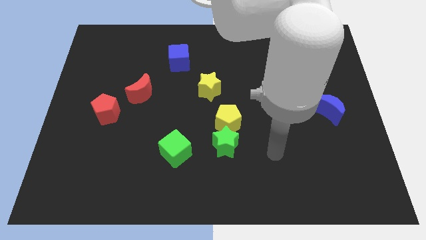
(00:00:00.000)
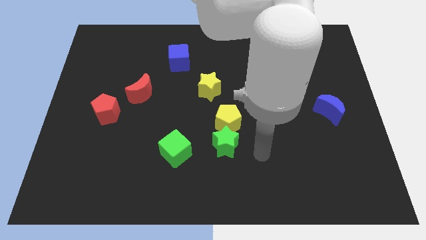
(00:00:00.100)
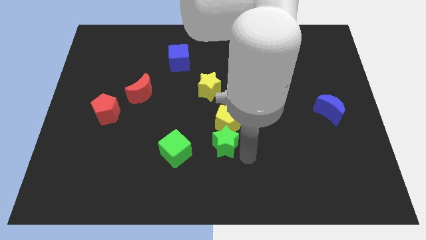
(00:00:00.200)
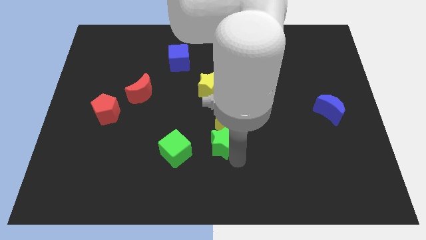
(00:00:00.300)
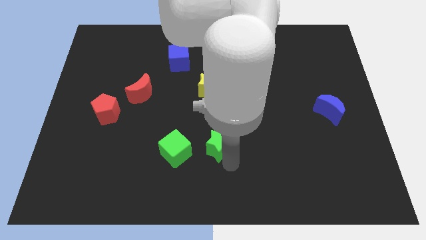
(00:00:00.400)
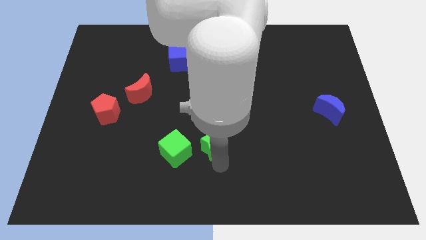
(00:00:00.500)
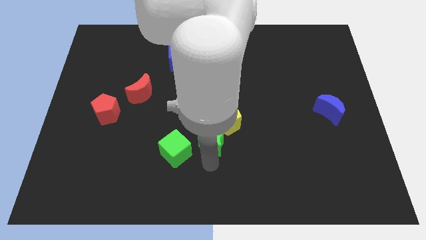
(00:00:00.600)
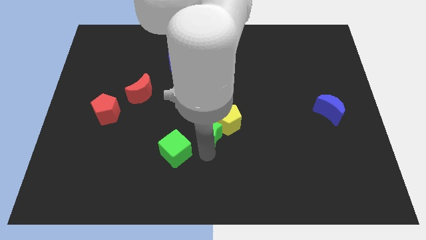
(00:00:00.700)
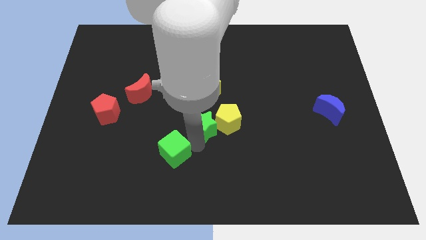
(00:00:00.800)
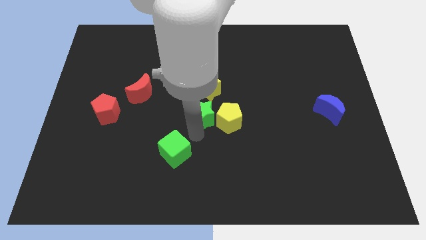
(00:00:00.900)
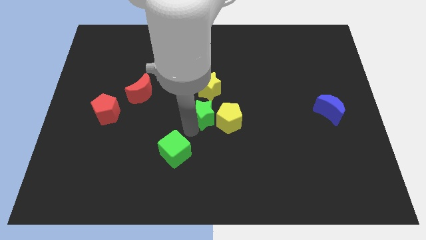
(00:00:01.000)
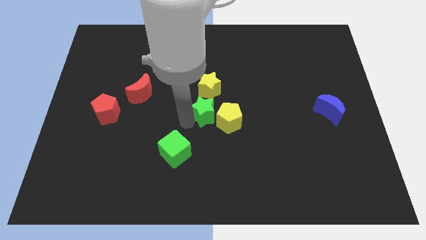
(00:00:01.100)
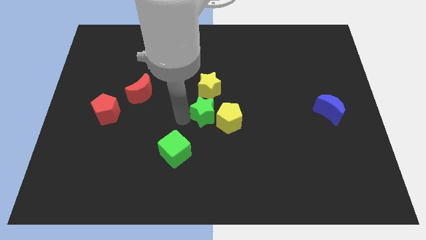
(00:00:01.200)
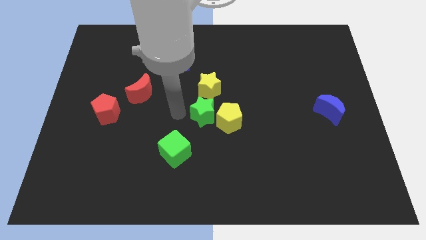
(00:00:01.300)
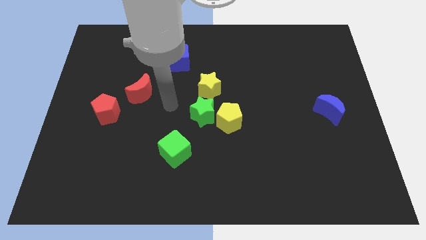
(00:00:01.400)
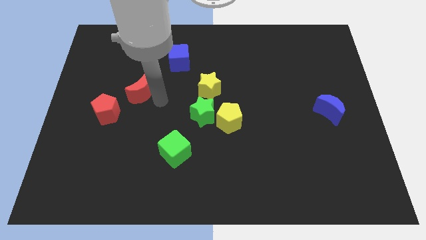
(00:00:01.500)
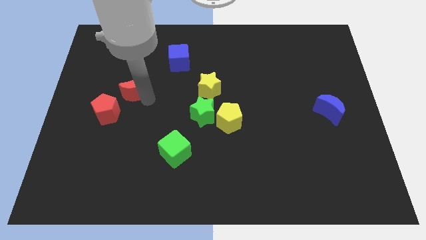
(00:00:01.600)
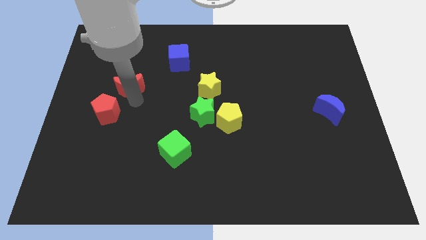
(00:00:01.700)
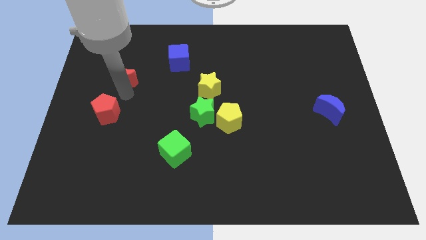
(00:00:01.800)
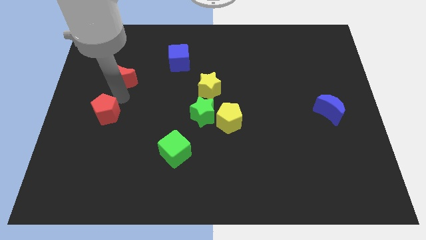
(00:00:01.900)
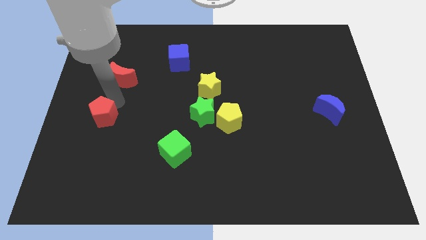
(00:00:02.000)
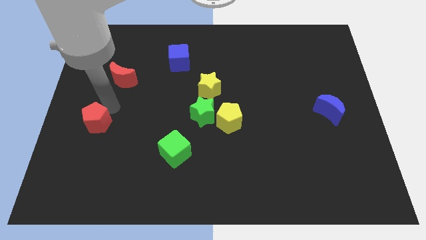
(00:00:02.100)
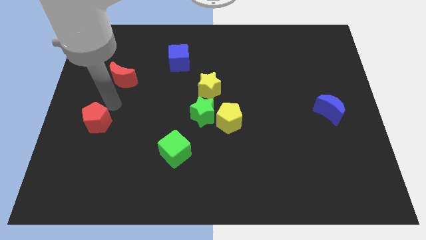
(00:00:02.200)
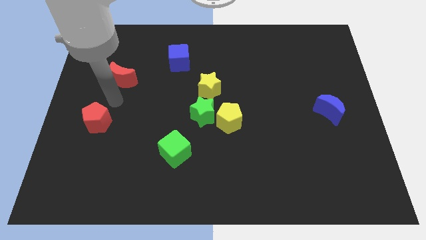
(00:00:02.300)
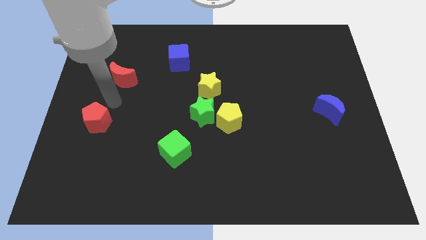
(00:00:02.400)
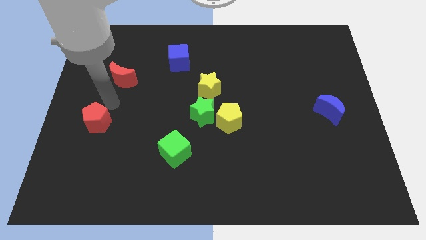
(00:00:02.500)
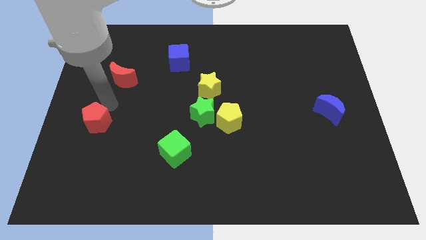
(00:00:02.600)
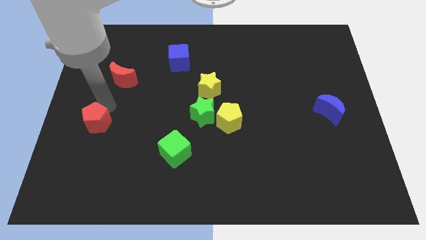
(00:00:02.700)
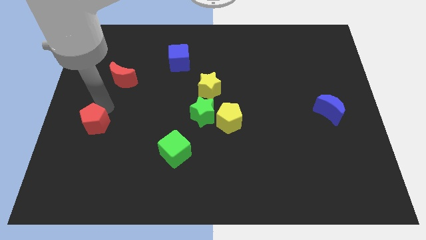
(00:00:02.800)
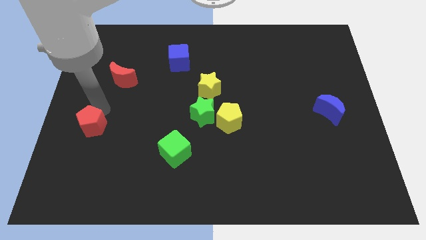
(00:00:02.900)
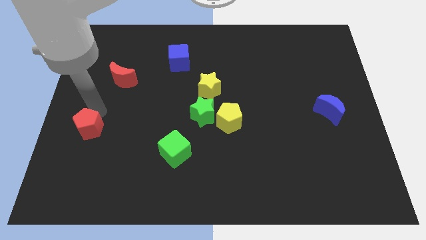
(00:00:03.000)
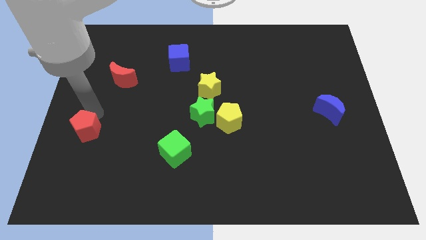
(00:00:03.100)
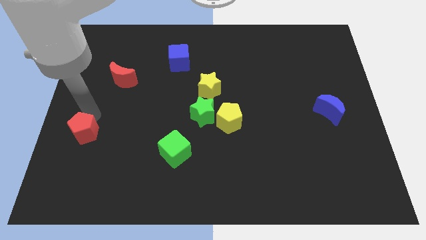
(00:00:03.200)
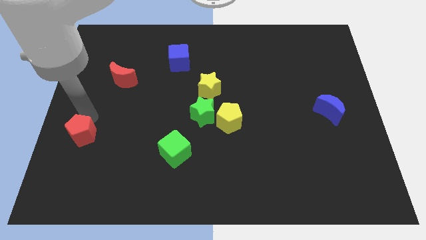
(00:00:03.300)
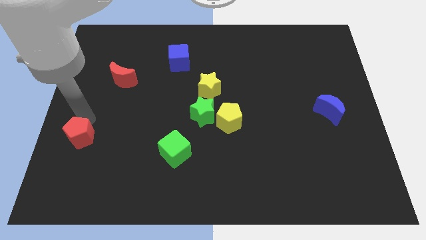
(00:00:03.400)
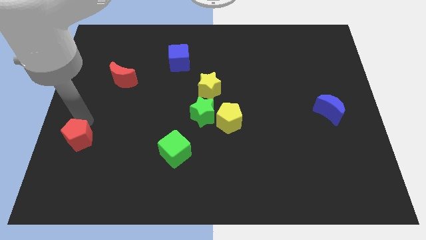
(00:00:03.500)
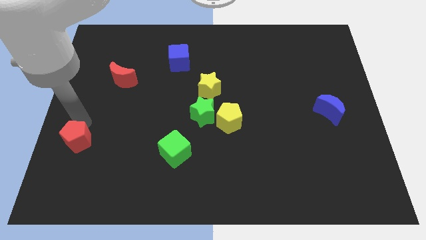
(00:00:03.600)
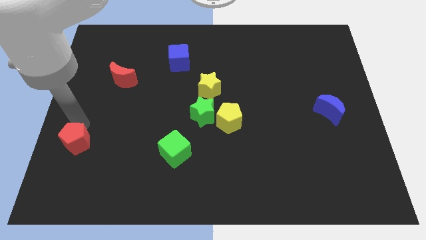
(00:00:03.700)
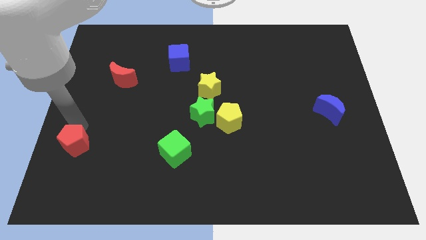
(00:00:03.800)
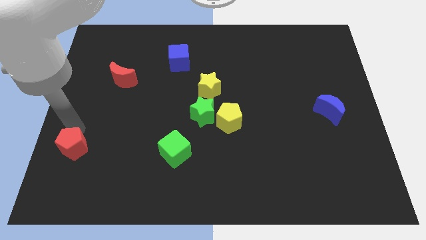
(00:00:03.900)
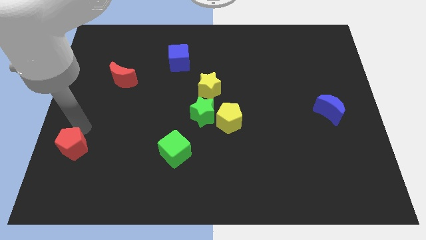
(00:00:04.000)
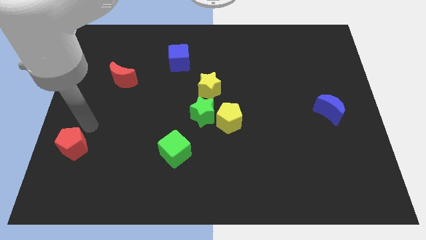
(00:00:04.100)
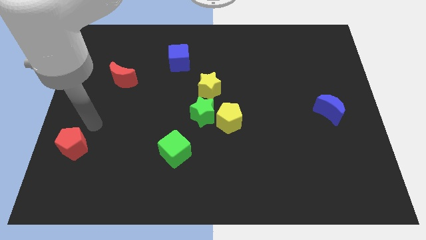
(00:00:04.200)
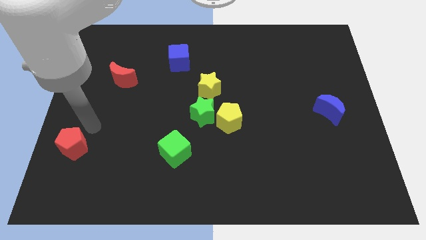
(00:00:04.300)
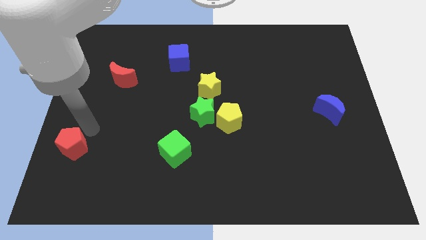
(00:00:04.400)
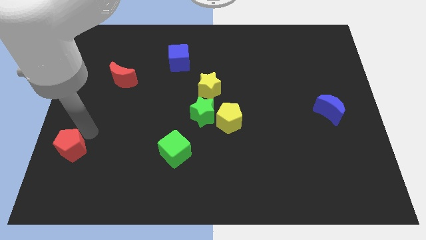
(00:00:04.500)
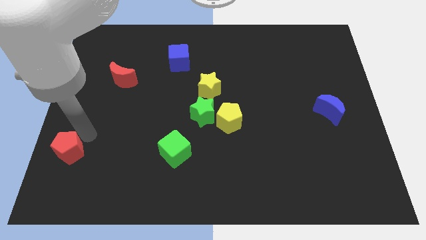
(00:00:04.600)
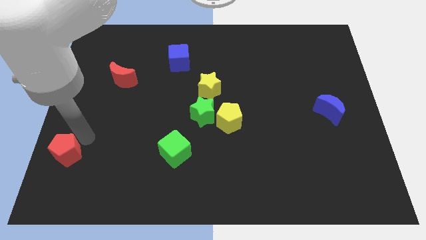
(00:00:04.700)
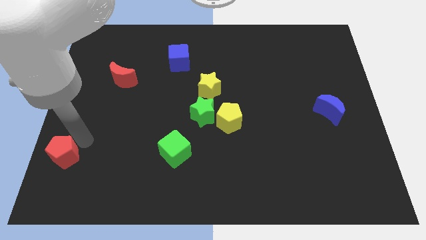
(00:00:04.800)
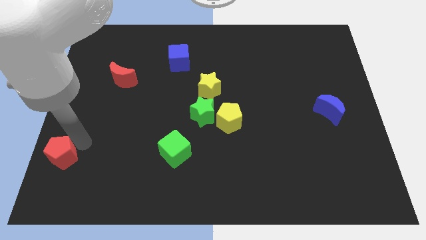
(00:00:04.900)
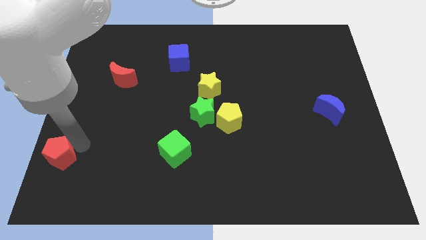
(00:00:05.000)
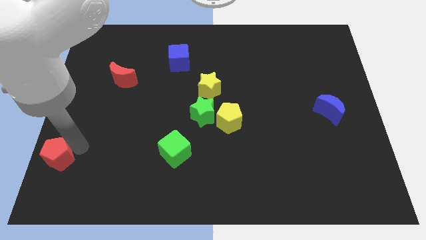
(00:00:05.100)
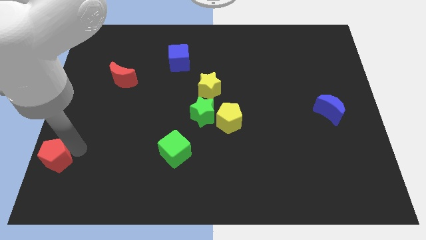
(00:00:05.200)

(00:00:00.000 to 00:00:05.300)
move the red pentagon to the lower left corner

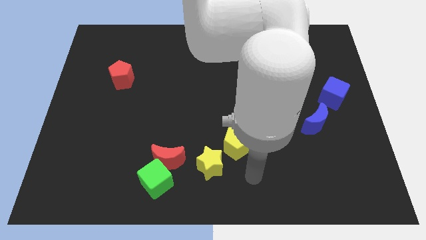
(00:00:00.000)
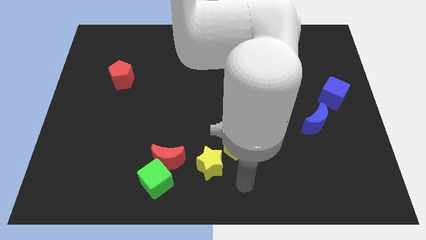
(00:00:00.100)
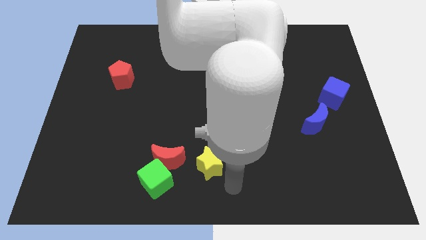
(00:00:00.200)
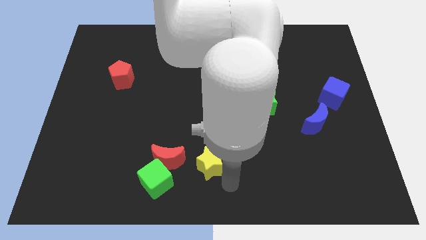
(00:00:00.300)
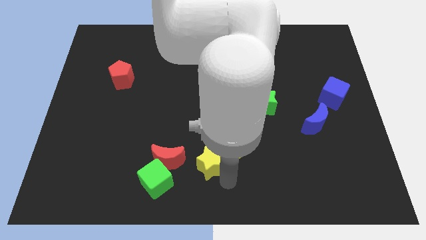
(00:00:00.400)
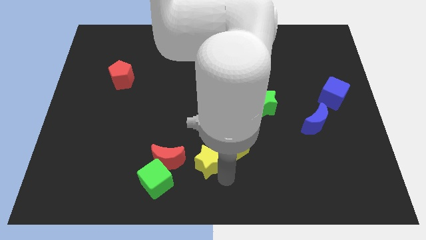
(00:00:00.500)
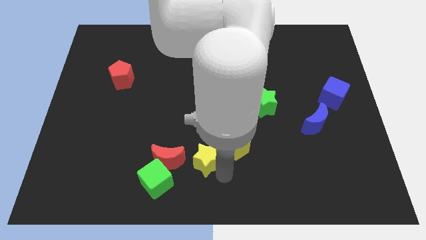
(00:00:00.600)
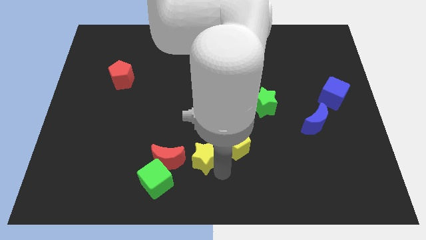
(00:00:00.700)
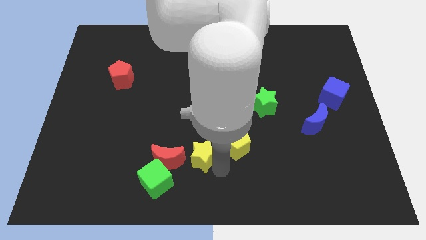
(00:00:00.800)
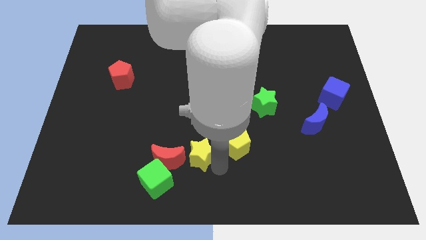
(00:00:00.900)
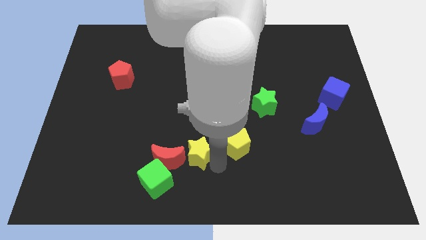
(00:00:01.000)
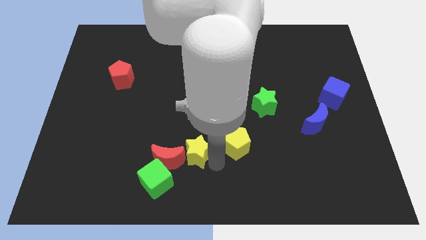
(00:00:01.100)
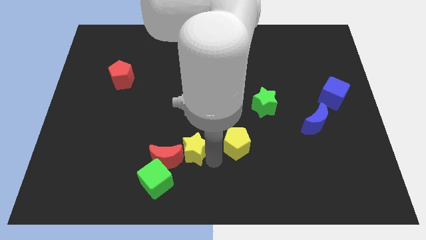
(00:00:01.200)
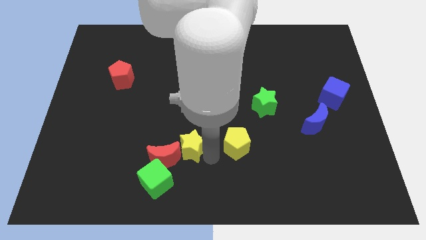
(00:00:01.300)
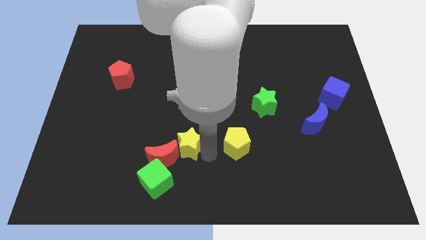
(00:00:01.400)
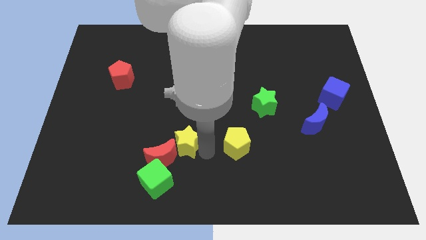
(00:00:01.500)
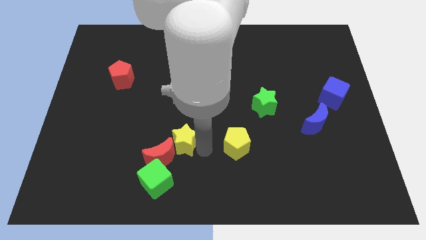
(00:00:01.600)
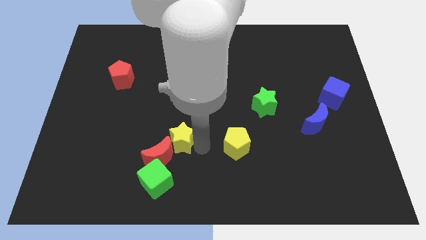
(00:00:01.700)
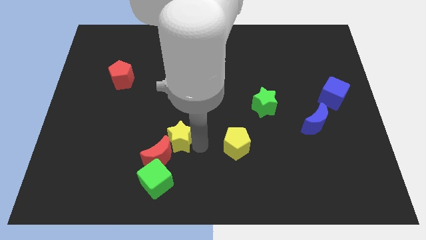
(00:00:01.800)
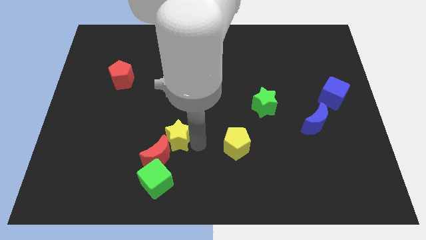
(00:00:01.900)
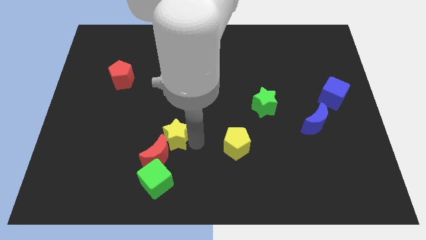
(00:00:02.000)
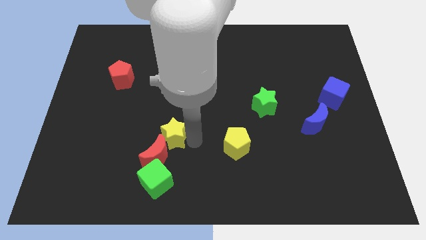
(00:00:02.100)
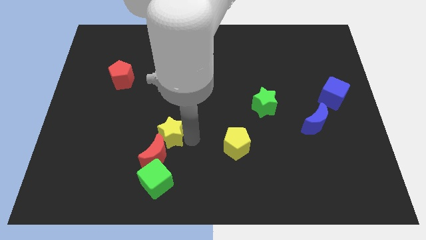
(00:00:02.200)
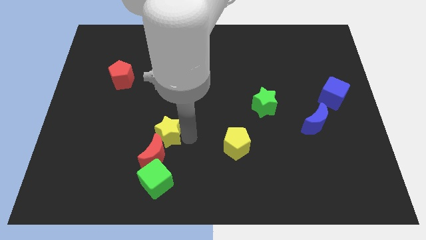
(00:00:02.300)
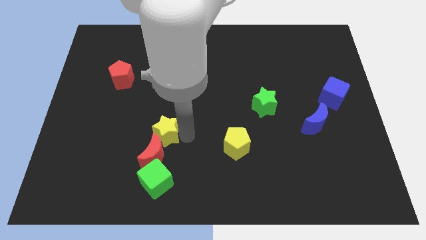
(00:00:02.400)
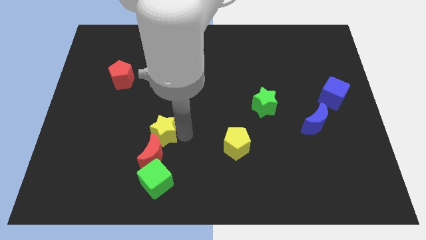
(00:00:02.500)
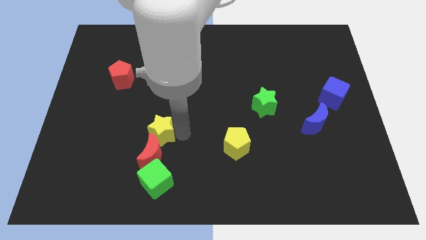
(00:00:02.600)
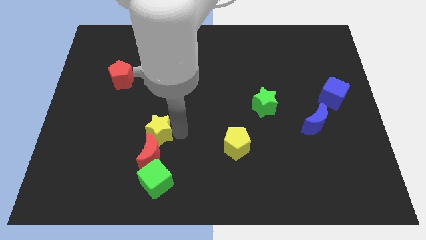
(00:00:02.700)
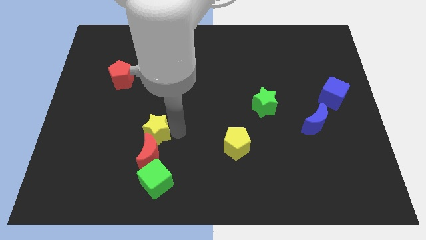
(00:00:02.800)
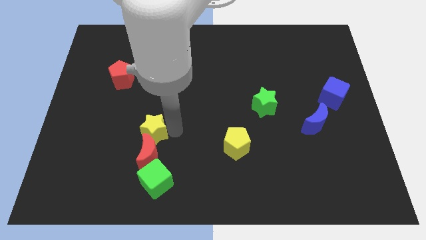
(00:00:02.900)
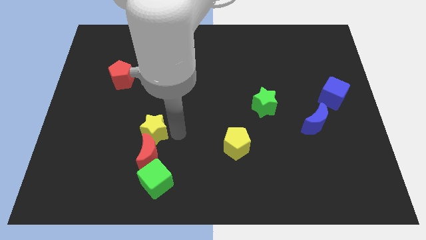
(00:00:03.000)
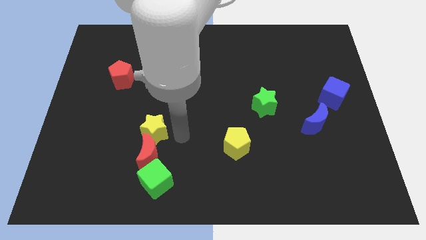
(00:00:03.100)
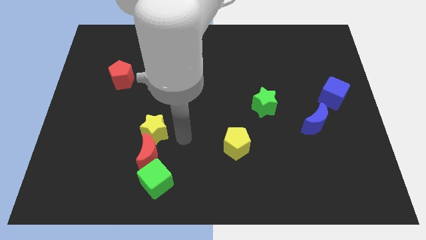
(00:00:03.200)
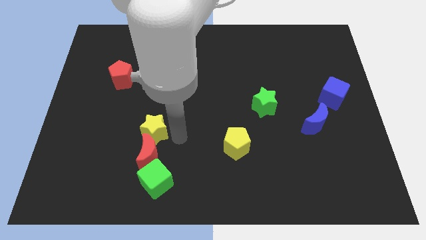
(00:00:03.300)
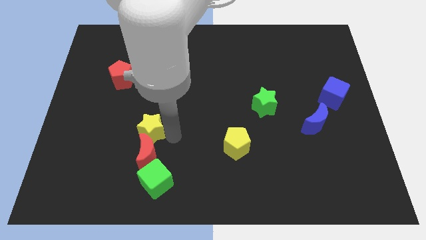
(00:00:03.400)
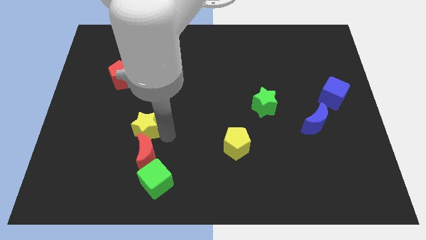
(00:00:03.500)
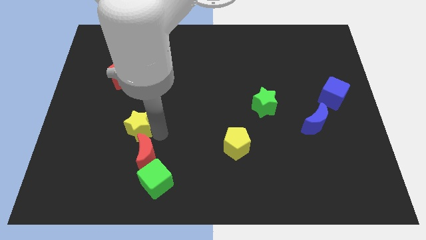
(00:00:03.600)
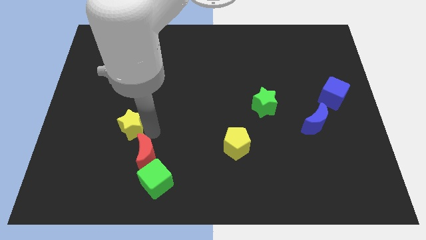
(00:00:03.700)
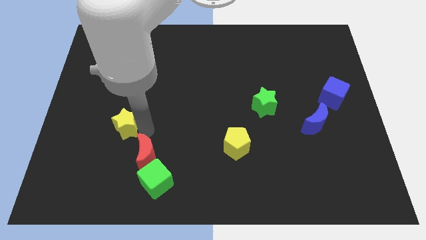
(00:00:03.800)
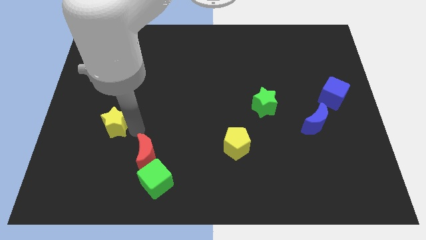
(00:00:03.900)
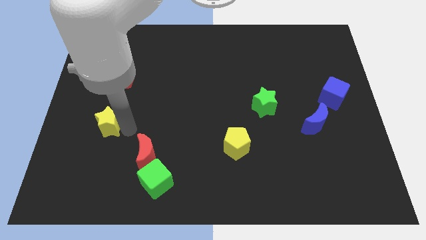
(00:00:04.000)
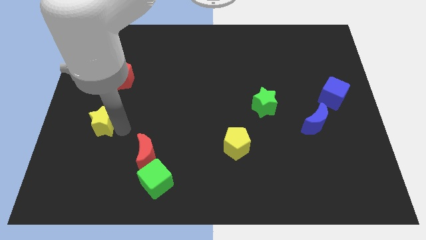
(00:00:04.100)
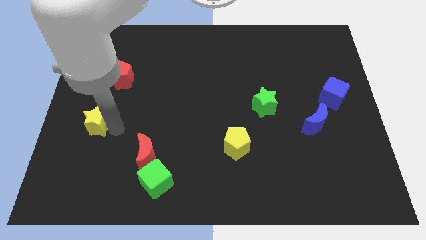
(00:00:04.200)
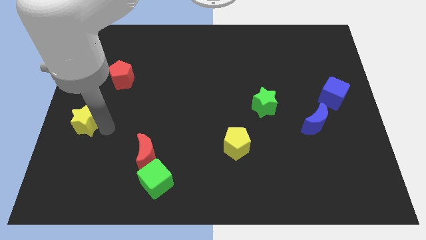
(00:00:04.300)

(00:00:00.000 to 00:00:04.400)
slide the yellow star to the center left
